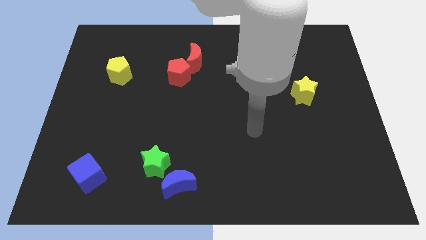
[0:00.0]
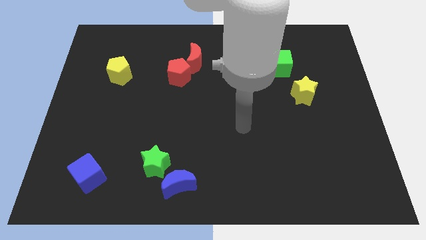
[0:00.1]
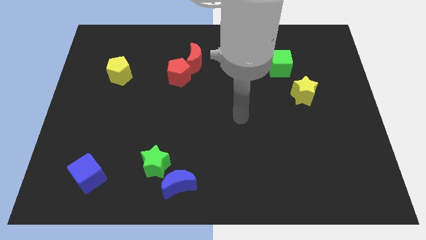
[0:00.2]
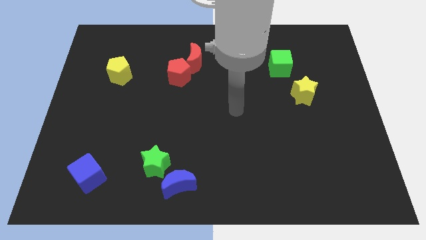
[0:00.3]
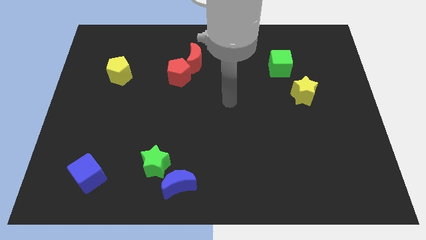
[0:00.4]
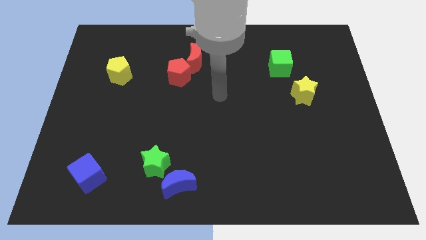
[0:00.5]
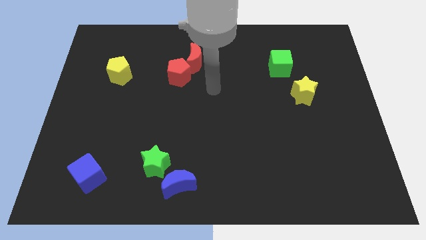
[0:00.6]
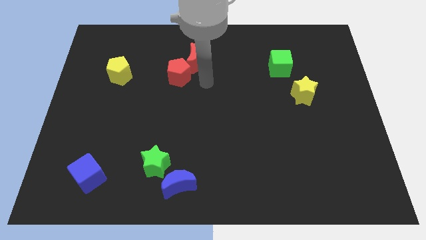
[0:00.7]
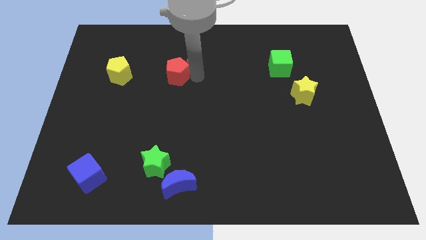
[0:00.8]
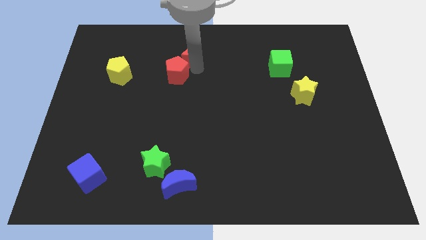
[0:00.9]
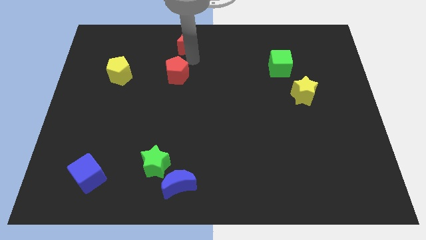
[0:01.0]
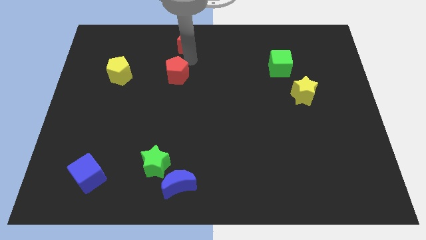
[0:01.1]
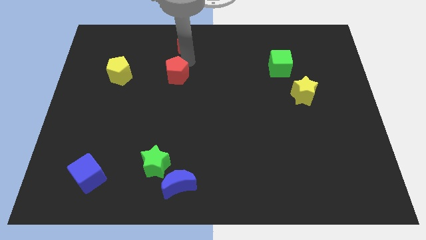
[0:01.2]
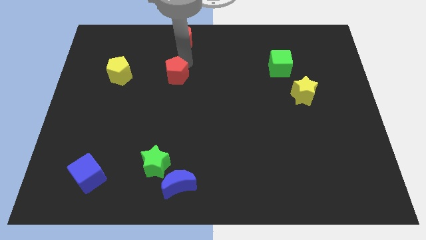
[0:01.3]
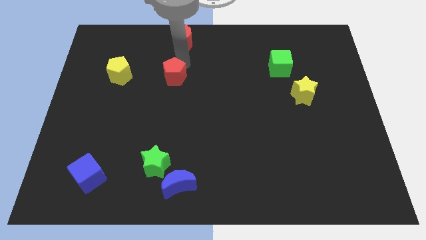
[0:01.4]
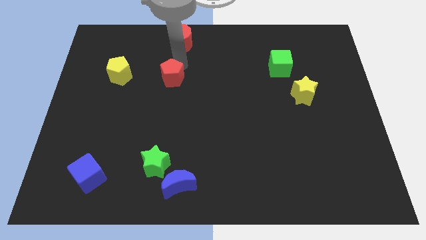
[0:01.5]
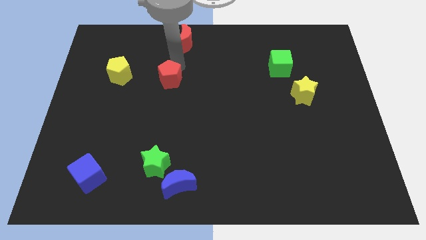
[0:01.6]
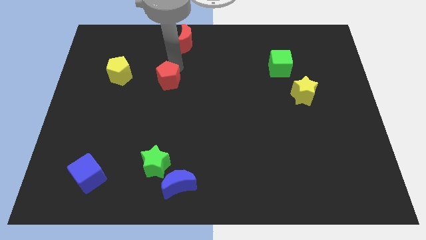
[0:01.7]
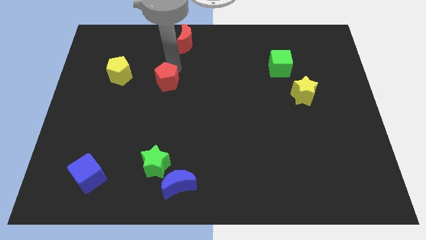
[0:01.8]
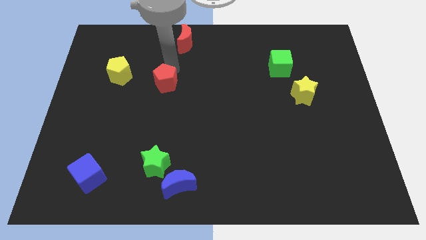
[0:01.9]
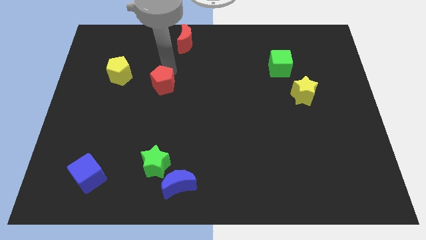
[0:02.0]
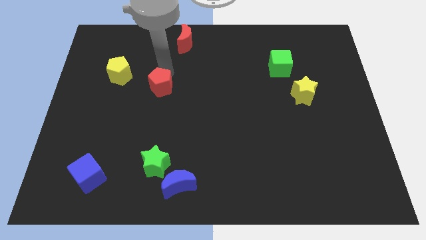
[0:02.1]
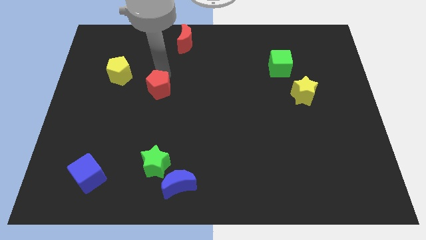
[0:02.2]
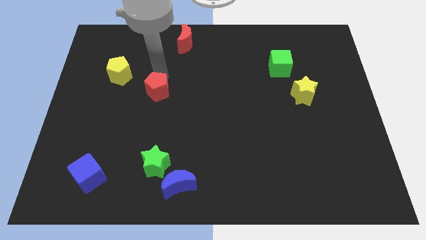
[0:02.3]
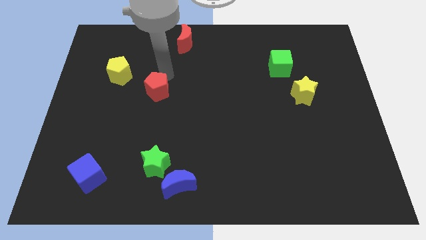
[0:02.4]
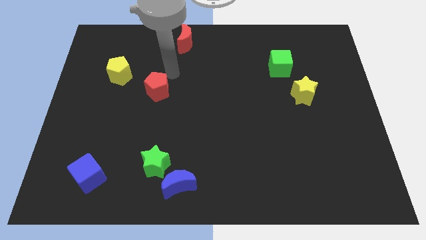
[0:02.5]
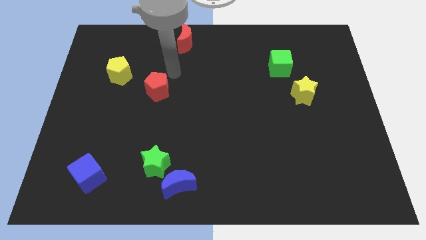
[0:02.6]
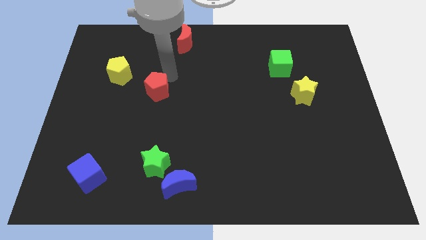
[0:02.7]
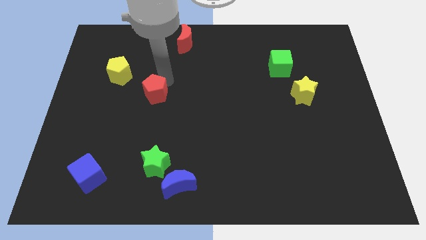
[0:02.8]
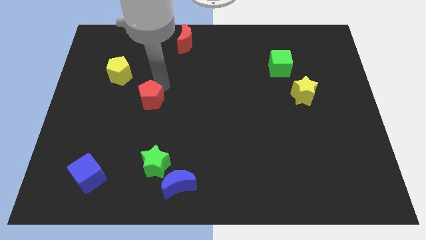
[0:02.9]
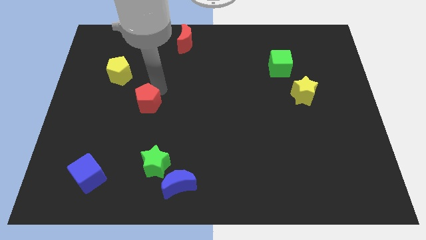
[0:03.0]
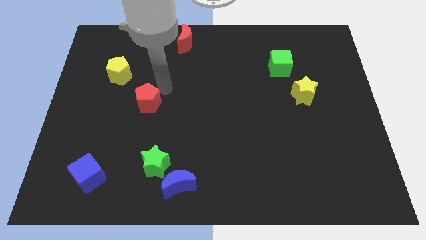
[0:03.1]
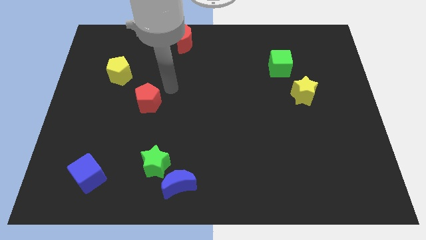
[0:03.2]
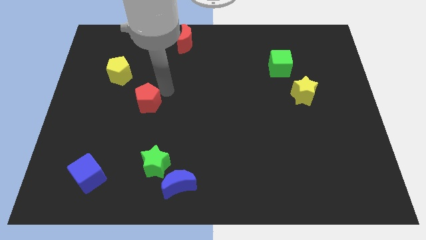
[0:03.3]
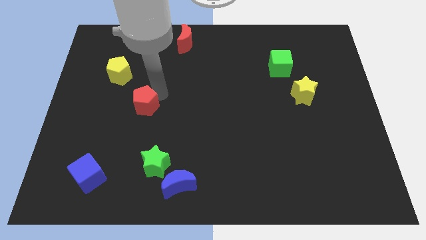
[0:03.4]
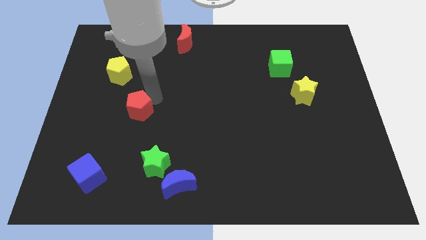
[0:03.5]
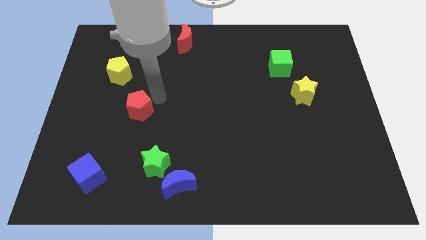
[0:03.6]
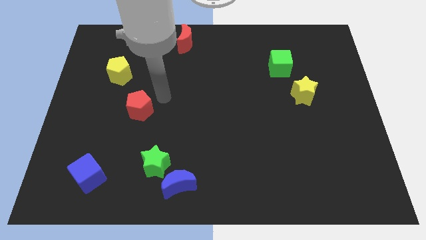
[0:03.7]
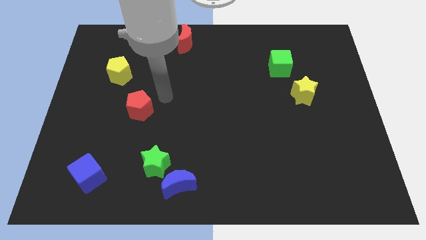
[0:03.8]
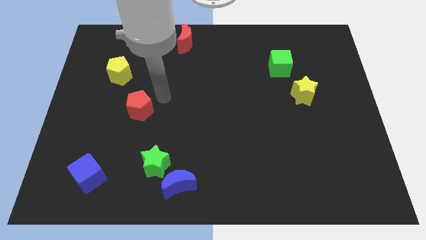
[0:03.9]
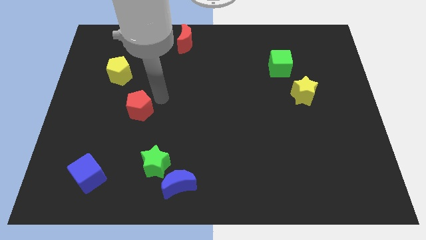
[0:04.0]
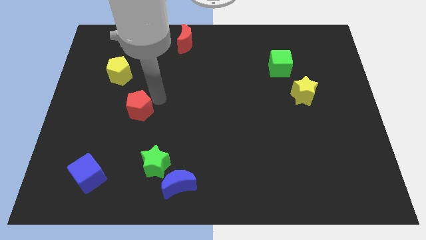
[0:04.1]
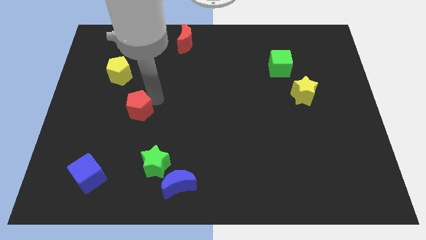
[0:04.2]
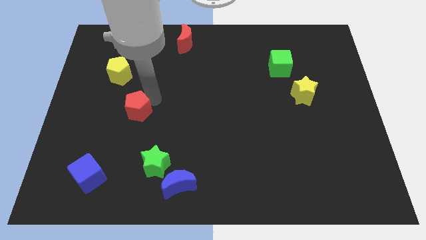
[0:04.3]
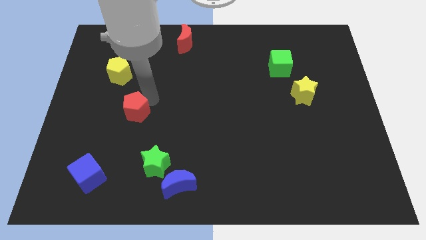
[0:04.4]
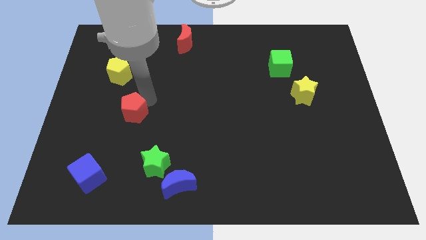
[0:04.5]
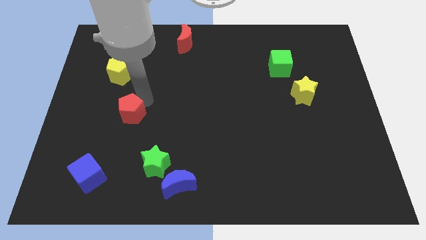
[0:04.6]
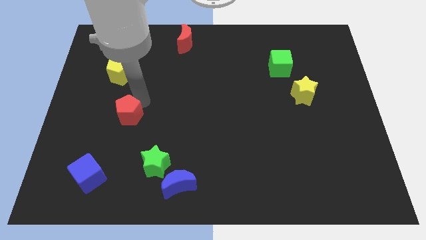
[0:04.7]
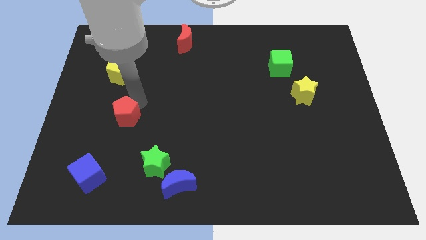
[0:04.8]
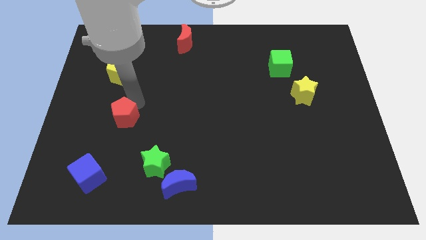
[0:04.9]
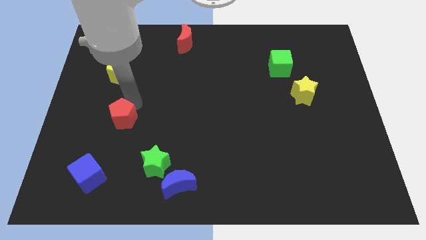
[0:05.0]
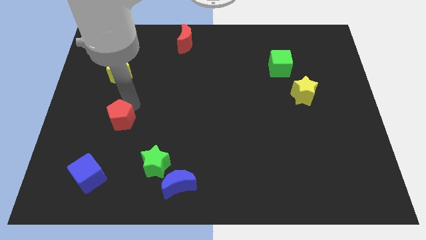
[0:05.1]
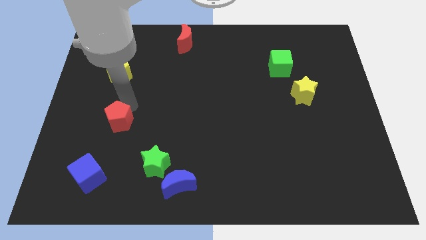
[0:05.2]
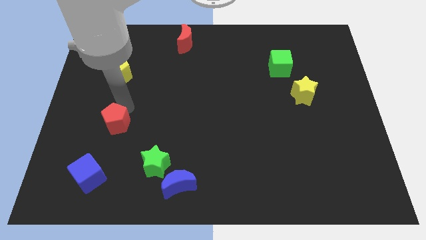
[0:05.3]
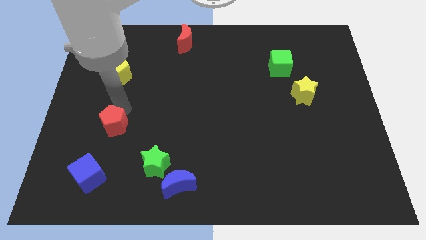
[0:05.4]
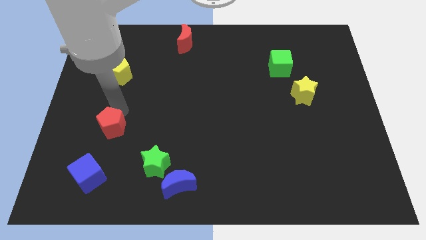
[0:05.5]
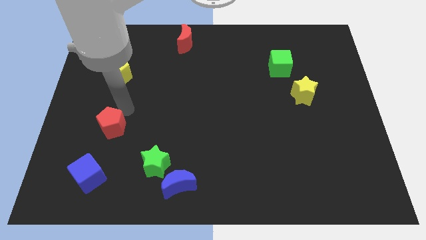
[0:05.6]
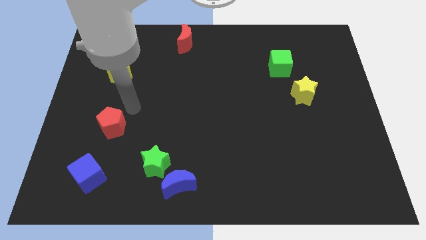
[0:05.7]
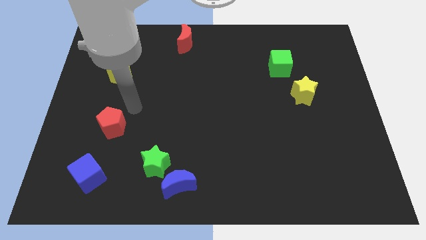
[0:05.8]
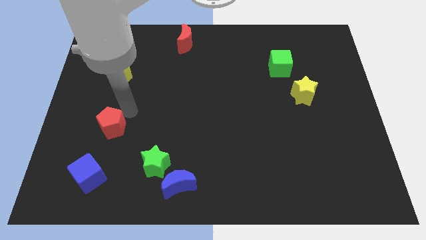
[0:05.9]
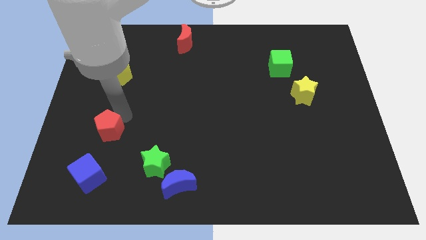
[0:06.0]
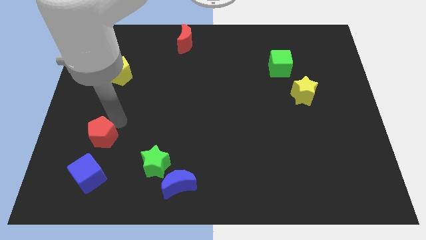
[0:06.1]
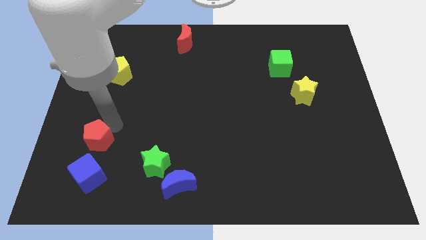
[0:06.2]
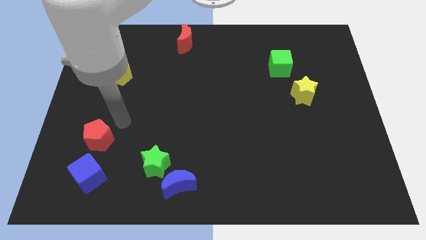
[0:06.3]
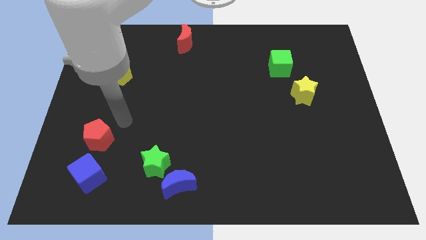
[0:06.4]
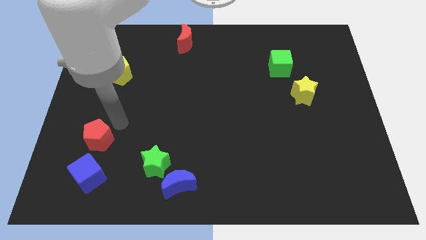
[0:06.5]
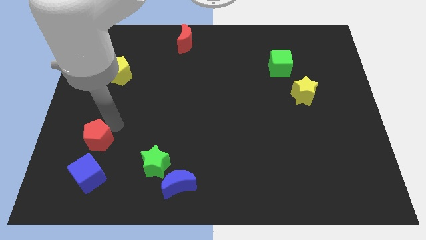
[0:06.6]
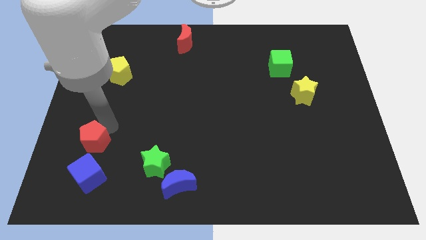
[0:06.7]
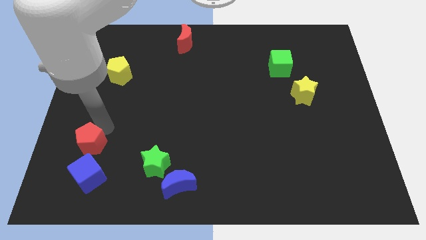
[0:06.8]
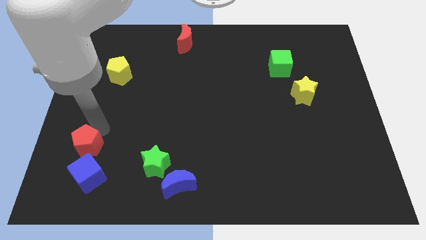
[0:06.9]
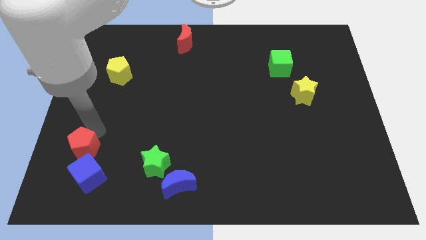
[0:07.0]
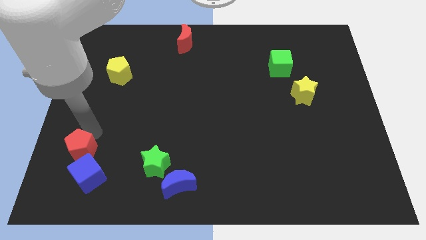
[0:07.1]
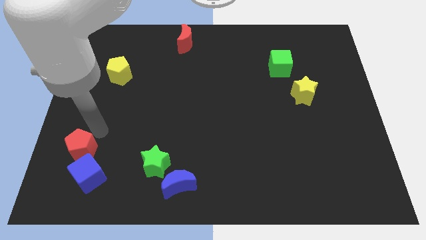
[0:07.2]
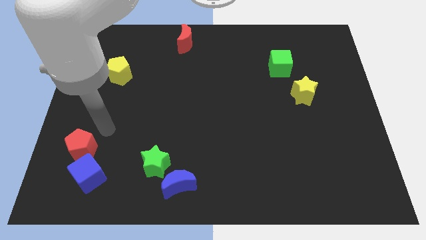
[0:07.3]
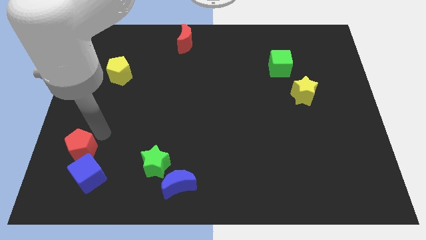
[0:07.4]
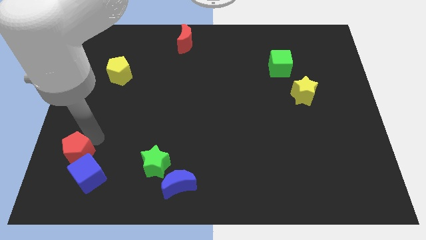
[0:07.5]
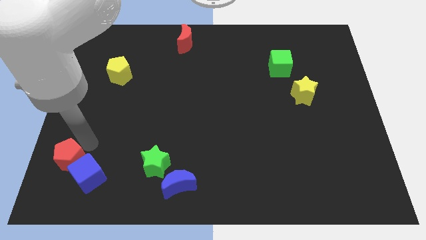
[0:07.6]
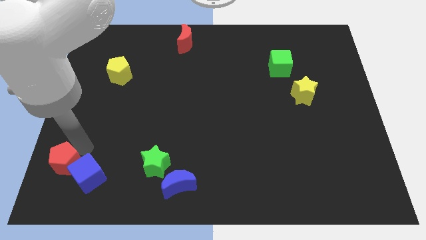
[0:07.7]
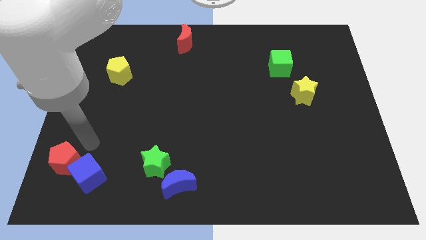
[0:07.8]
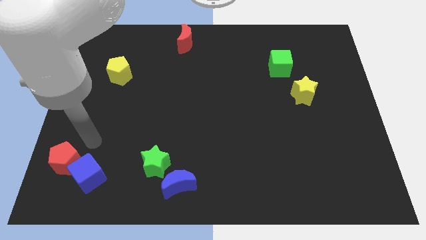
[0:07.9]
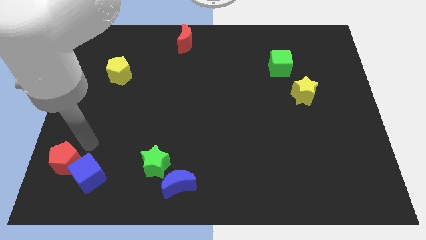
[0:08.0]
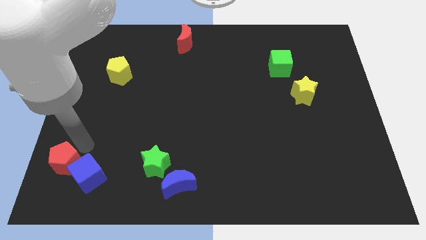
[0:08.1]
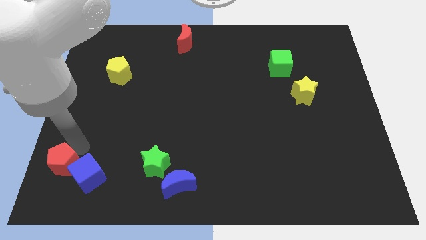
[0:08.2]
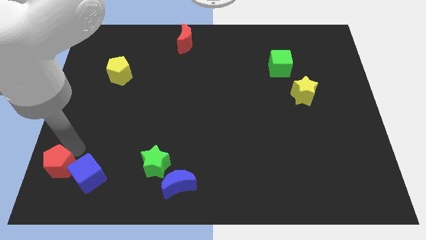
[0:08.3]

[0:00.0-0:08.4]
push the red pentagon to the bottom left corner
